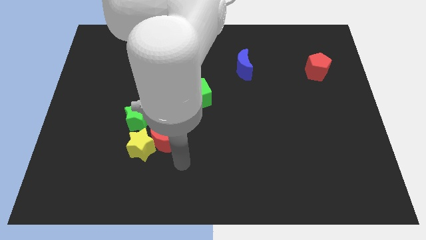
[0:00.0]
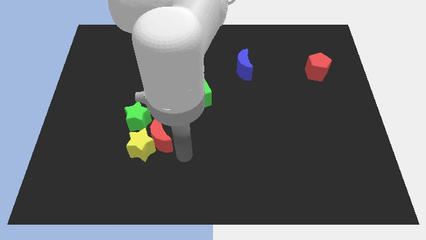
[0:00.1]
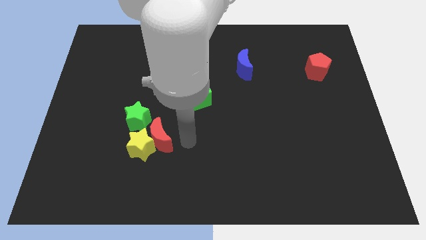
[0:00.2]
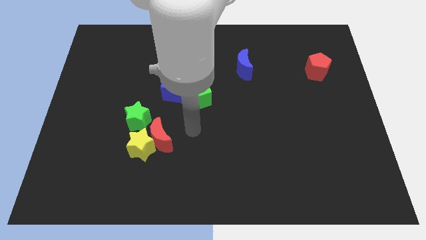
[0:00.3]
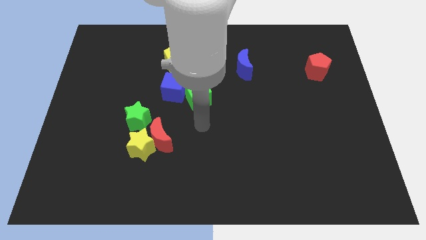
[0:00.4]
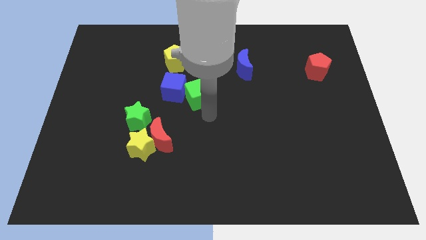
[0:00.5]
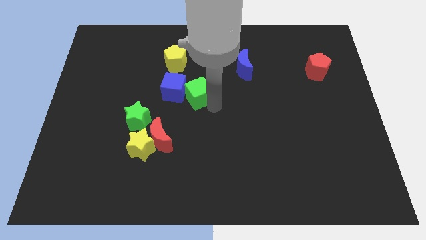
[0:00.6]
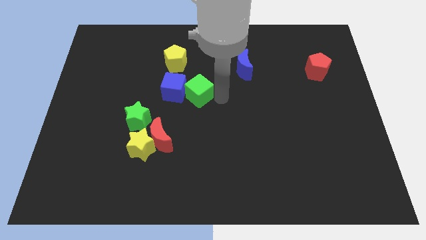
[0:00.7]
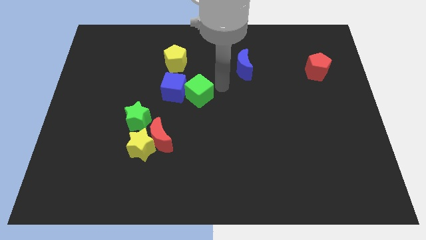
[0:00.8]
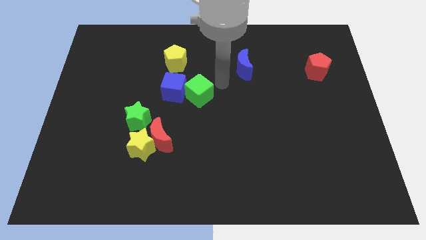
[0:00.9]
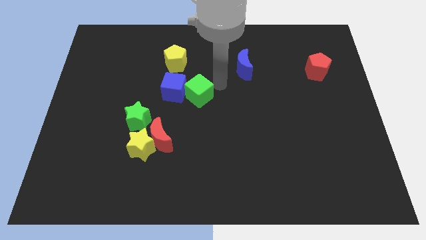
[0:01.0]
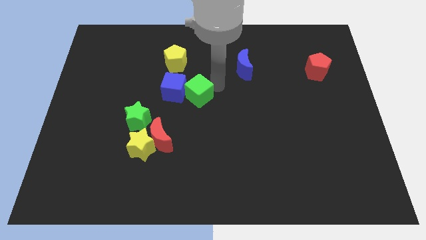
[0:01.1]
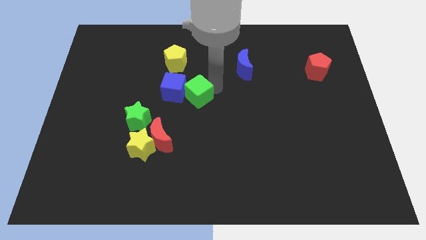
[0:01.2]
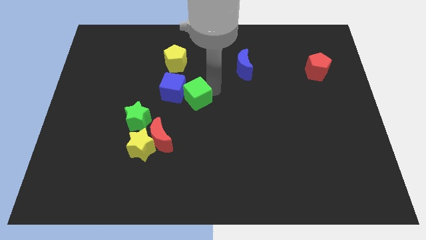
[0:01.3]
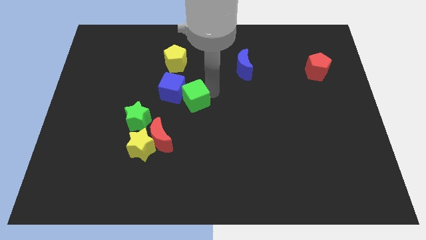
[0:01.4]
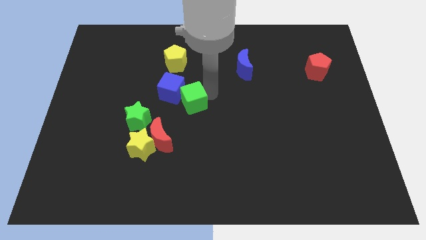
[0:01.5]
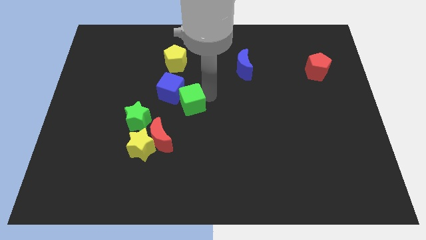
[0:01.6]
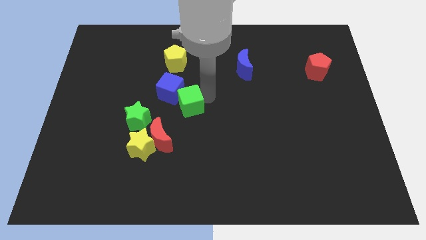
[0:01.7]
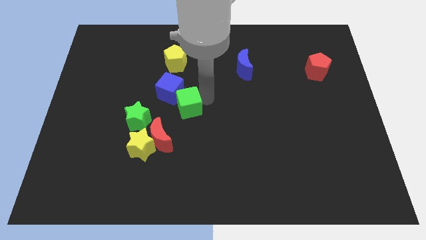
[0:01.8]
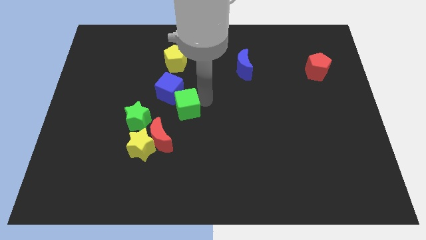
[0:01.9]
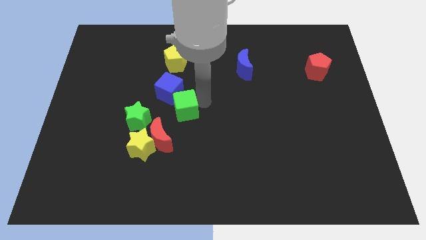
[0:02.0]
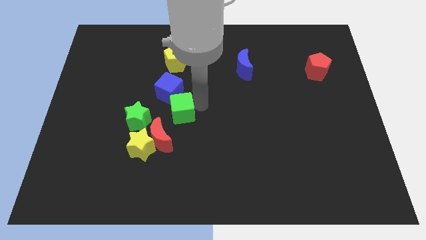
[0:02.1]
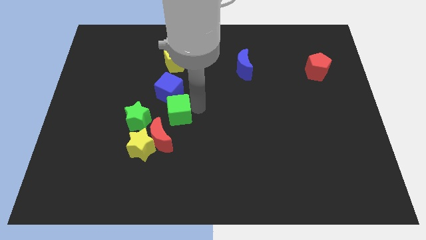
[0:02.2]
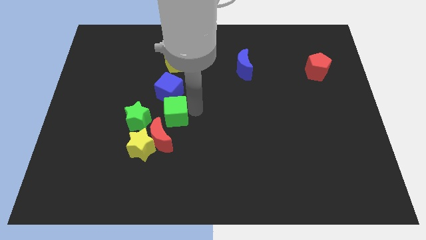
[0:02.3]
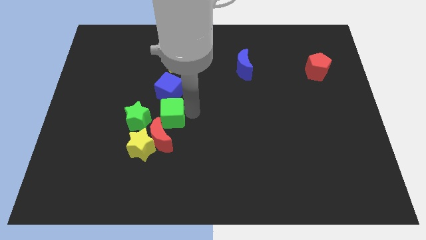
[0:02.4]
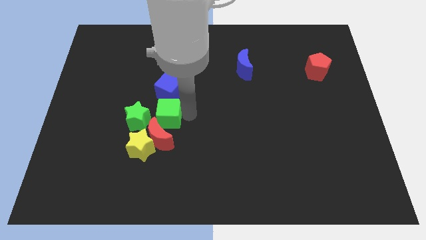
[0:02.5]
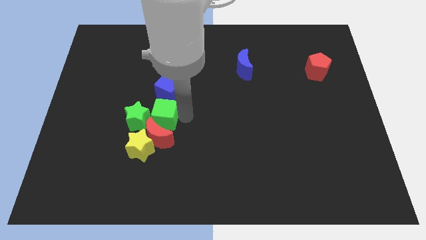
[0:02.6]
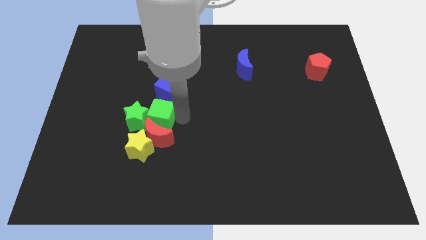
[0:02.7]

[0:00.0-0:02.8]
move the green cube a little bit to the left

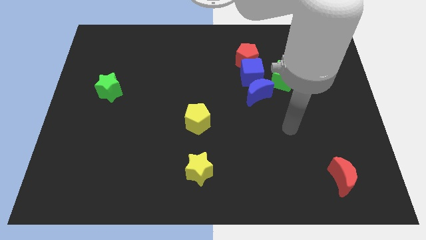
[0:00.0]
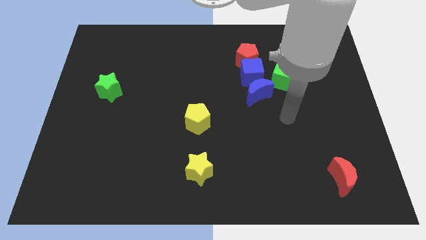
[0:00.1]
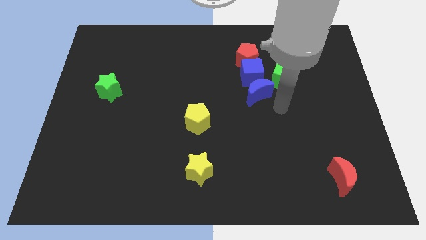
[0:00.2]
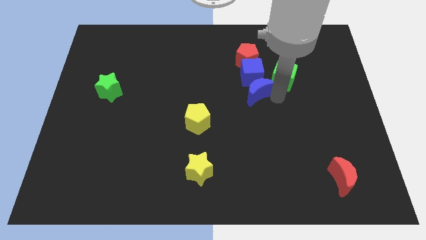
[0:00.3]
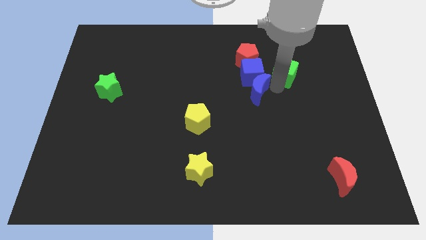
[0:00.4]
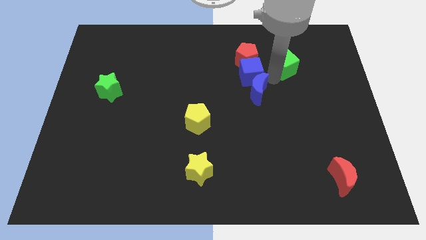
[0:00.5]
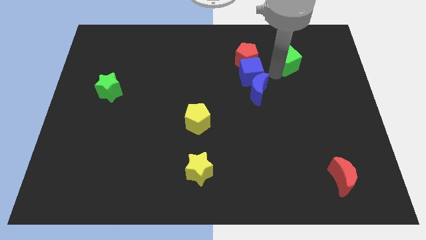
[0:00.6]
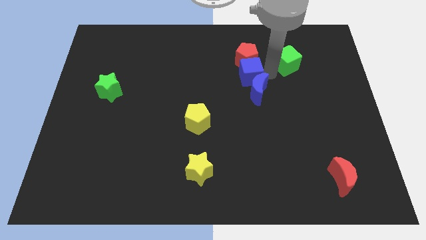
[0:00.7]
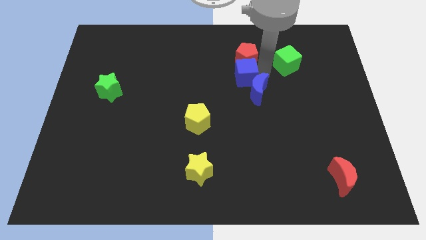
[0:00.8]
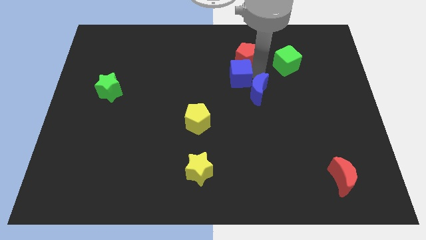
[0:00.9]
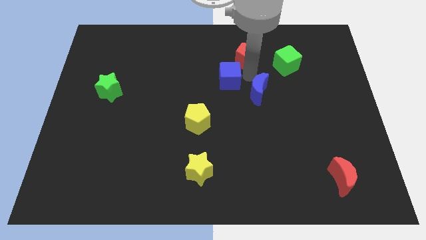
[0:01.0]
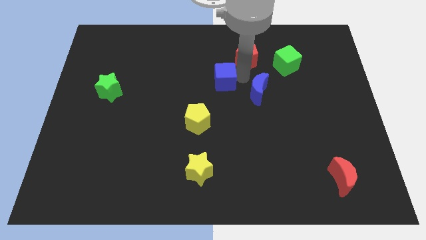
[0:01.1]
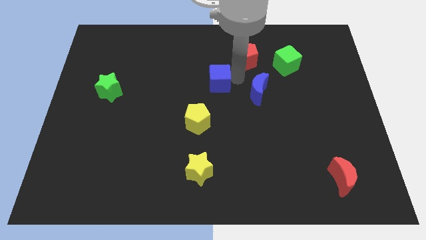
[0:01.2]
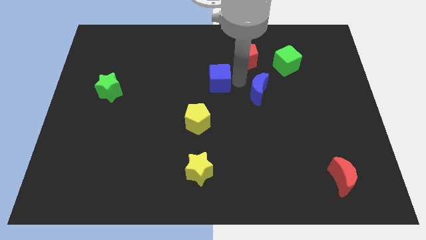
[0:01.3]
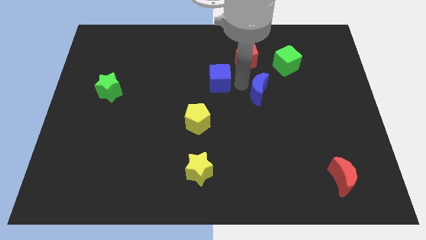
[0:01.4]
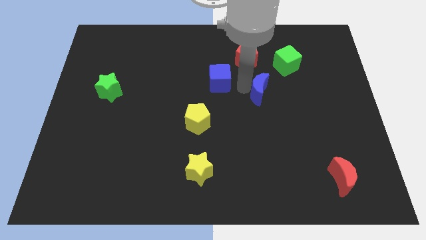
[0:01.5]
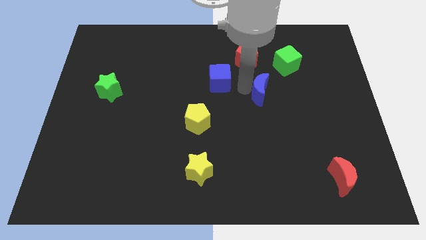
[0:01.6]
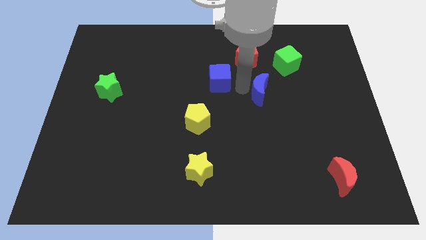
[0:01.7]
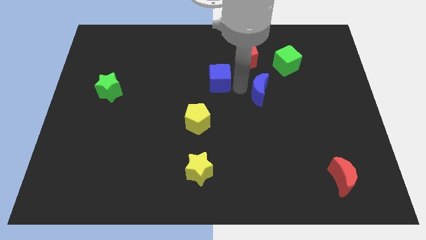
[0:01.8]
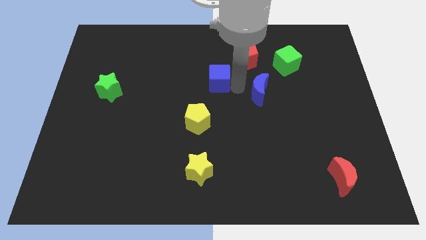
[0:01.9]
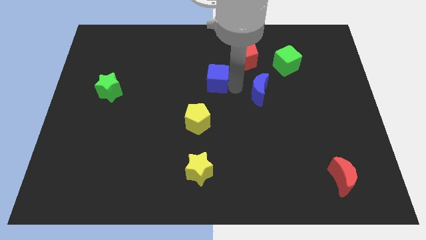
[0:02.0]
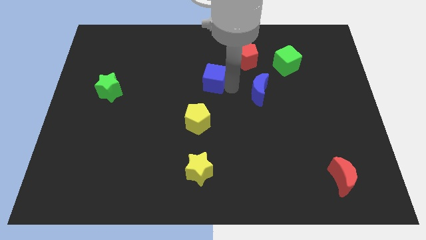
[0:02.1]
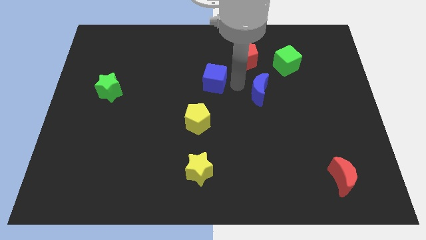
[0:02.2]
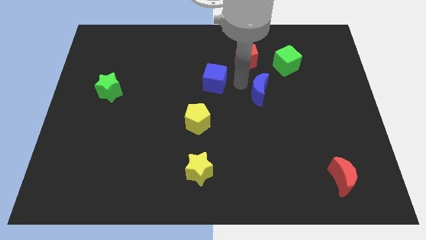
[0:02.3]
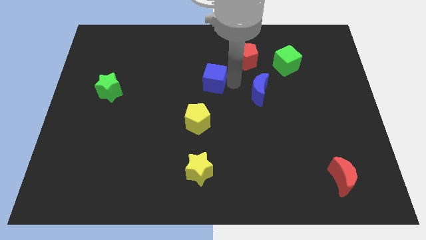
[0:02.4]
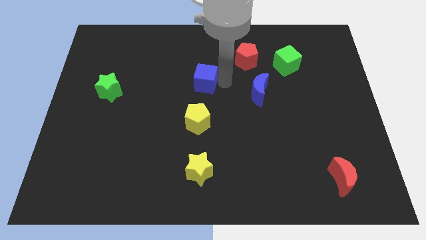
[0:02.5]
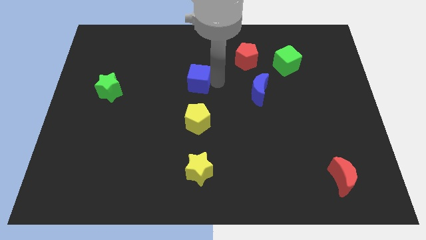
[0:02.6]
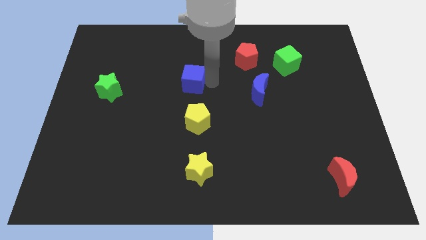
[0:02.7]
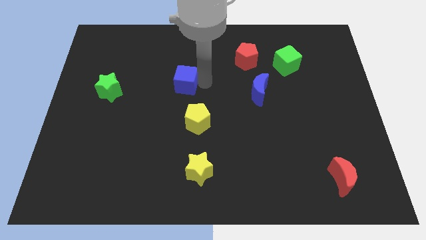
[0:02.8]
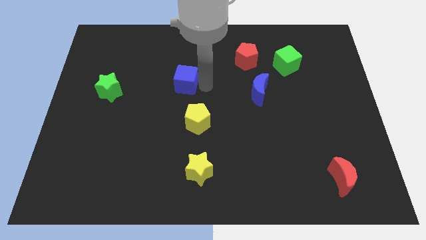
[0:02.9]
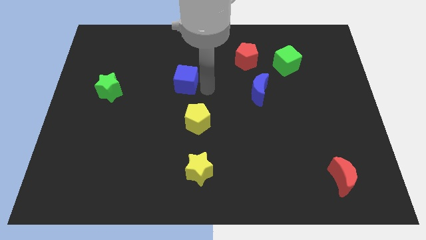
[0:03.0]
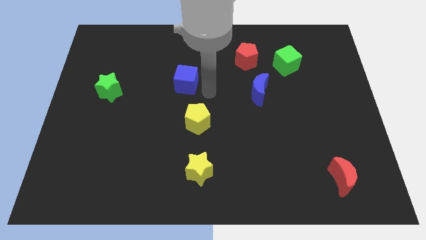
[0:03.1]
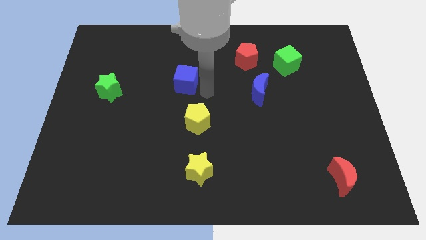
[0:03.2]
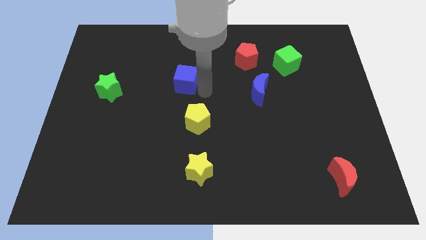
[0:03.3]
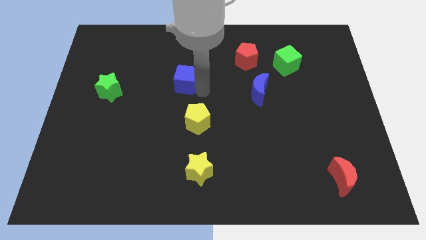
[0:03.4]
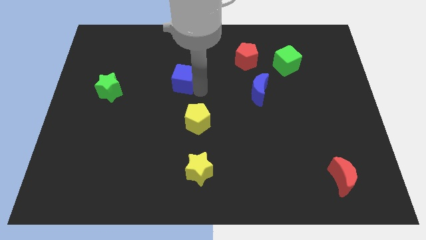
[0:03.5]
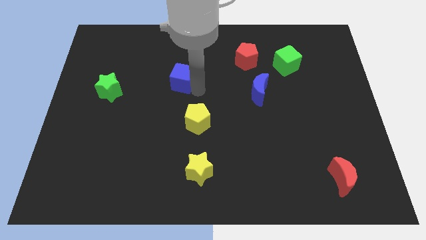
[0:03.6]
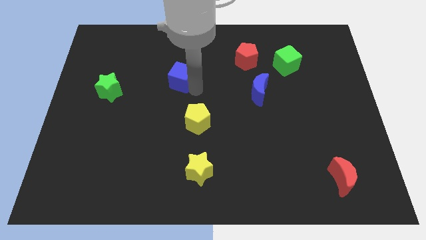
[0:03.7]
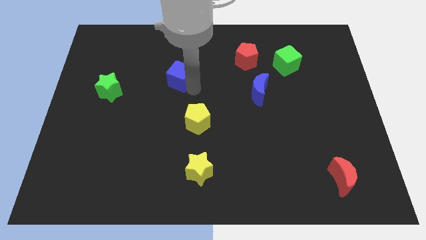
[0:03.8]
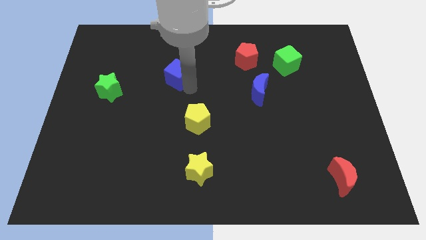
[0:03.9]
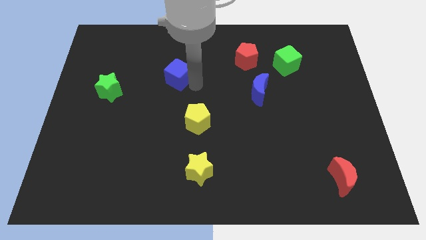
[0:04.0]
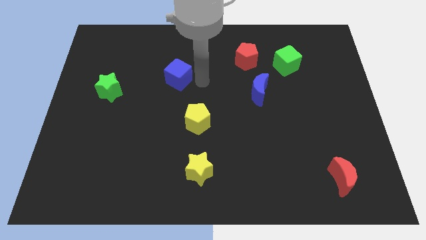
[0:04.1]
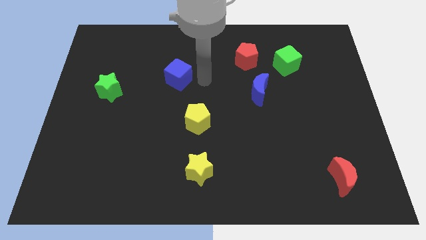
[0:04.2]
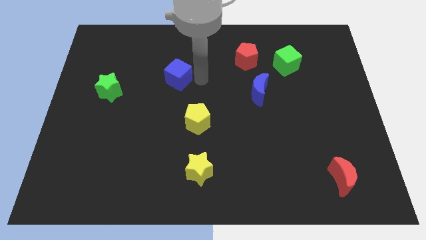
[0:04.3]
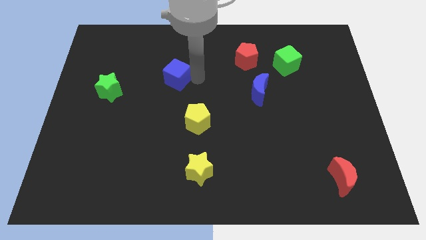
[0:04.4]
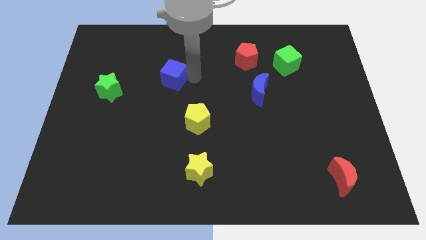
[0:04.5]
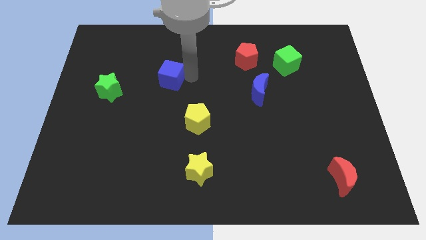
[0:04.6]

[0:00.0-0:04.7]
move the blue cube to the left

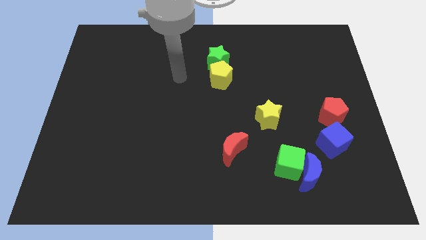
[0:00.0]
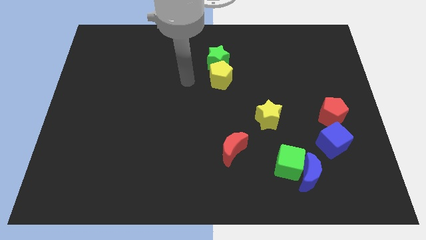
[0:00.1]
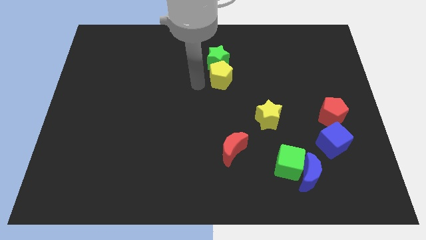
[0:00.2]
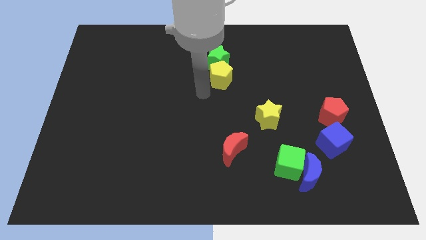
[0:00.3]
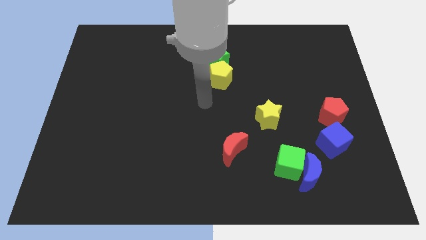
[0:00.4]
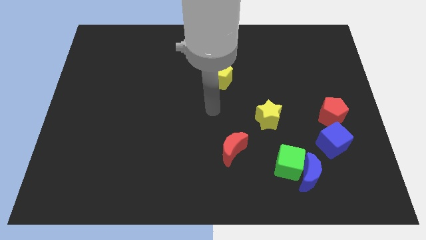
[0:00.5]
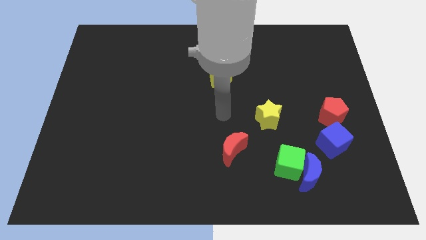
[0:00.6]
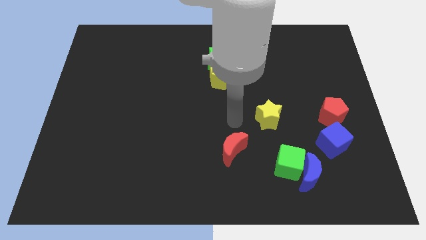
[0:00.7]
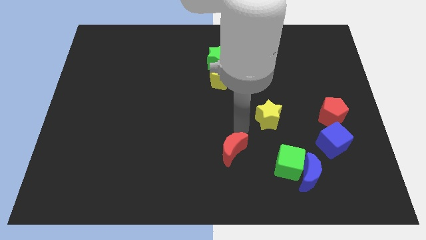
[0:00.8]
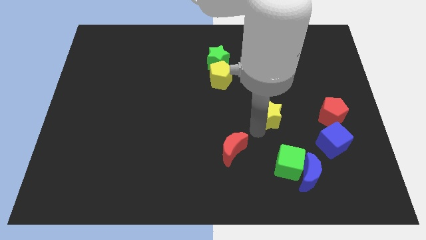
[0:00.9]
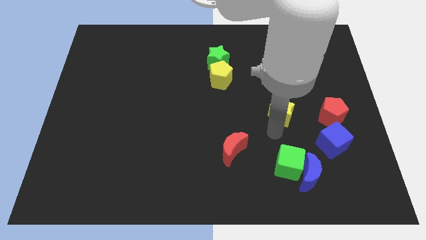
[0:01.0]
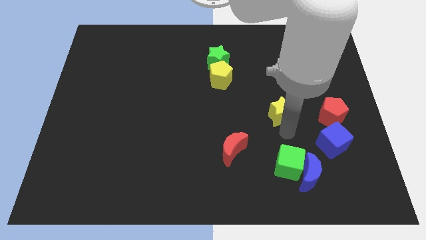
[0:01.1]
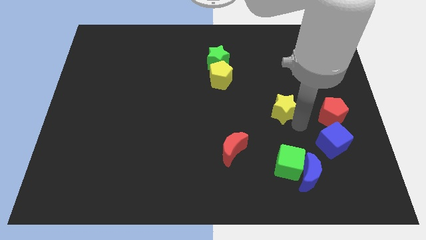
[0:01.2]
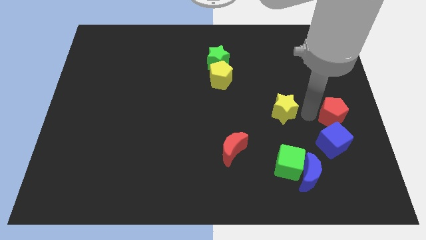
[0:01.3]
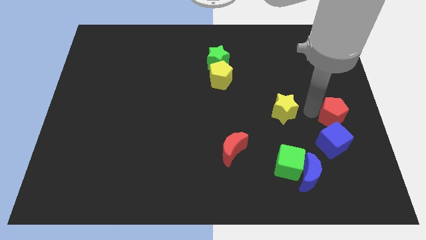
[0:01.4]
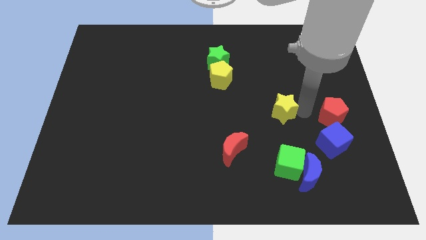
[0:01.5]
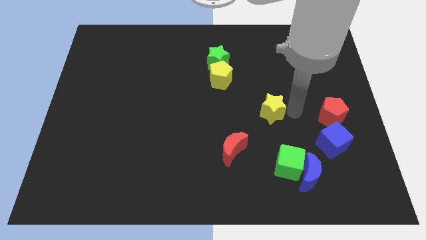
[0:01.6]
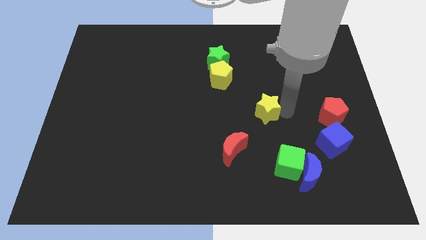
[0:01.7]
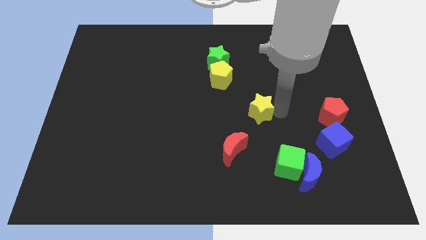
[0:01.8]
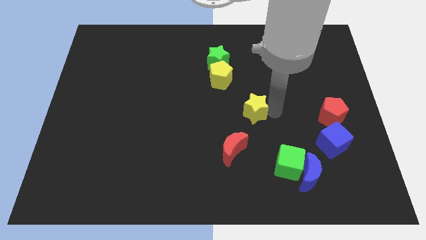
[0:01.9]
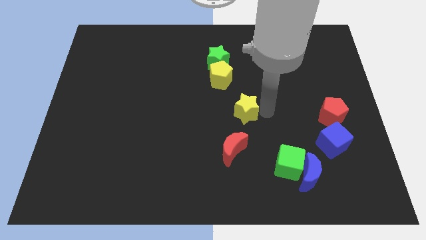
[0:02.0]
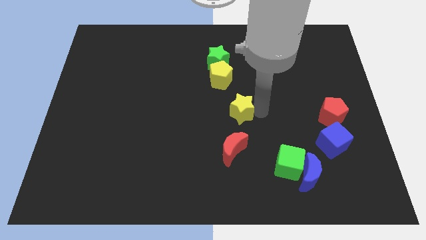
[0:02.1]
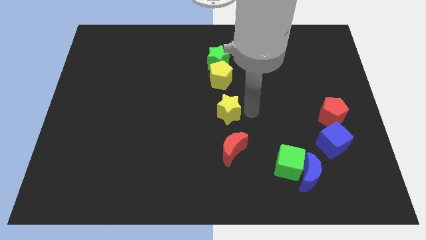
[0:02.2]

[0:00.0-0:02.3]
slightly slide the yellow star left
